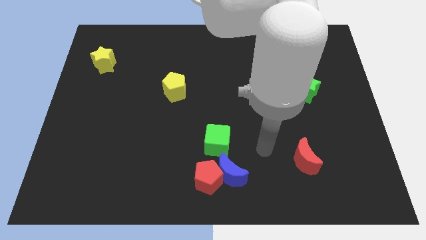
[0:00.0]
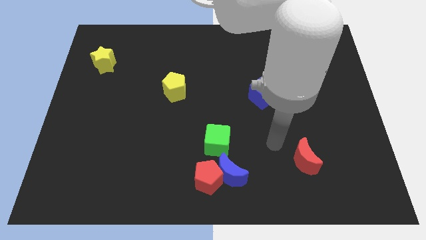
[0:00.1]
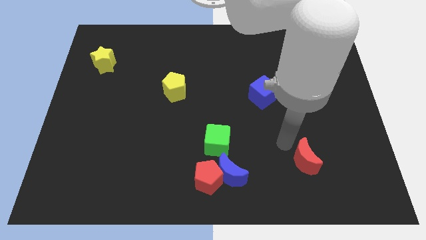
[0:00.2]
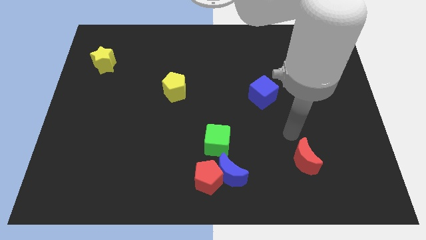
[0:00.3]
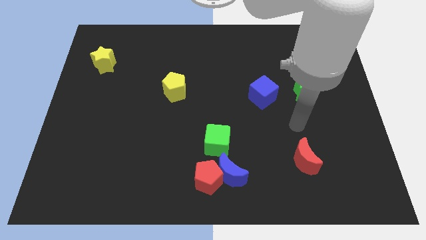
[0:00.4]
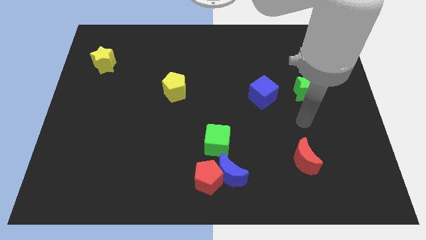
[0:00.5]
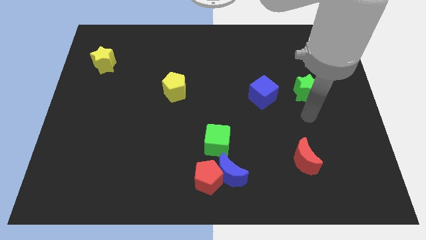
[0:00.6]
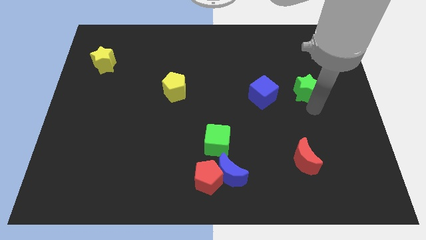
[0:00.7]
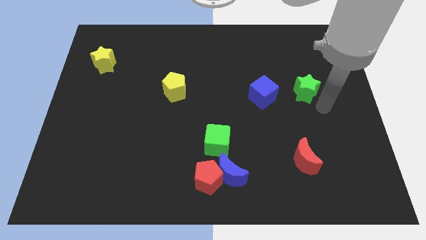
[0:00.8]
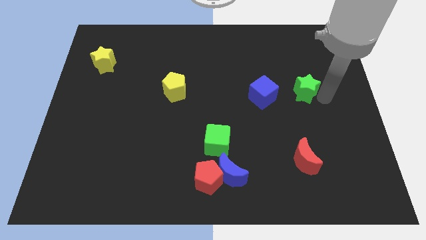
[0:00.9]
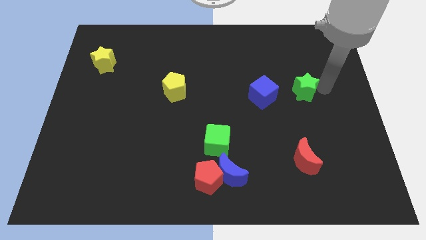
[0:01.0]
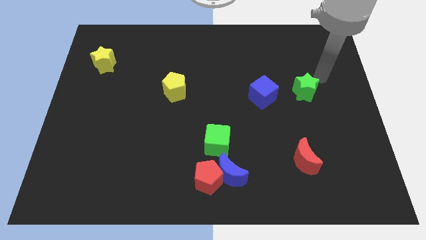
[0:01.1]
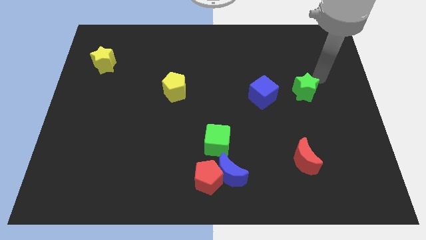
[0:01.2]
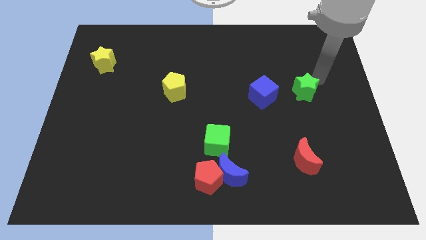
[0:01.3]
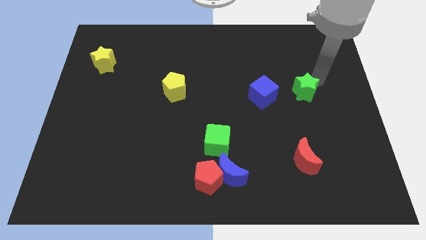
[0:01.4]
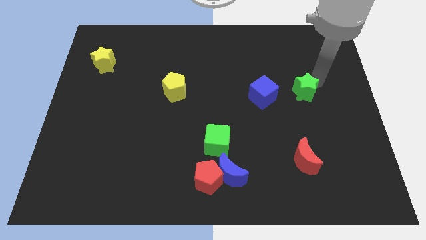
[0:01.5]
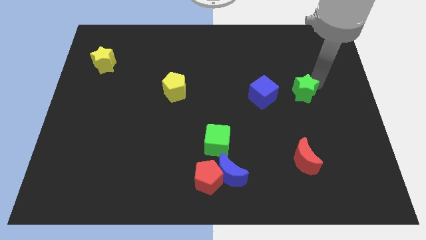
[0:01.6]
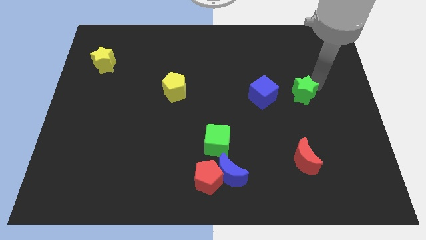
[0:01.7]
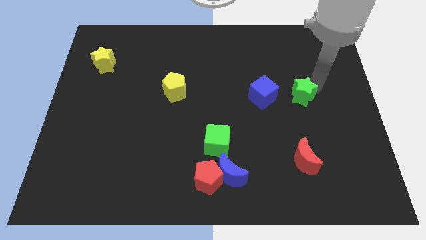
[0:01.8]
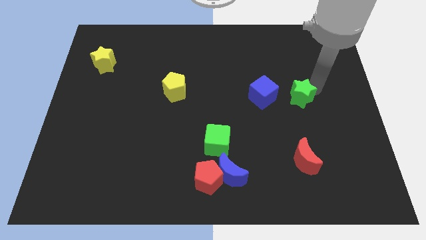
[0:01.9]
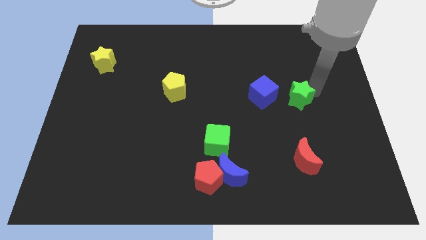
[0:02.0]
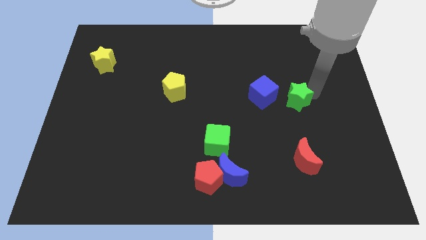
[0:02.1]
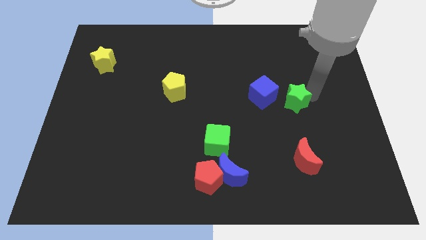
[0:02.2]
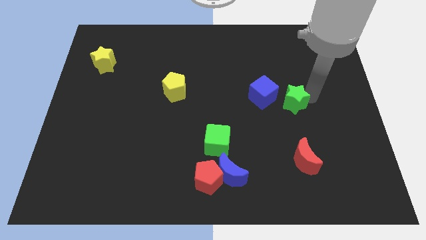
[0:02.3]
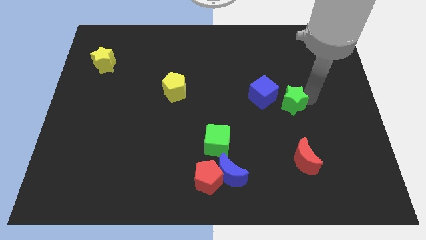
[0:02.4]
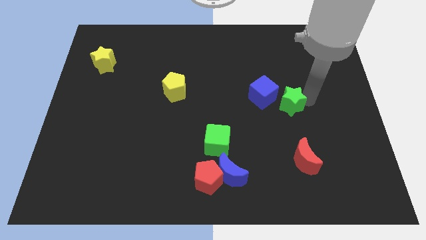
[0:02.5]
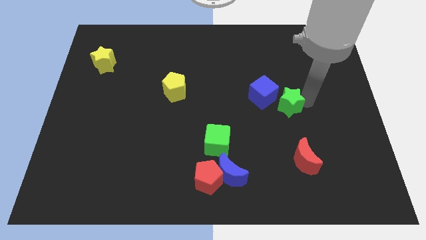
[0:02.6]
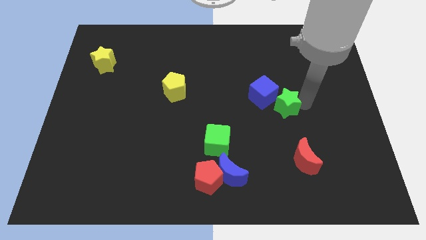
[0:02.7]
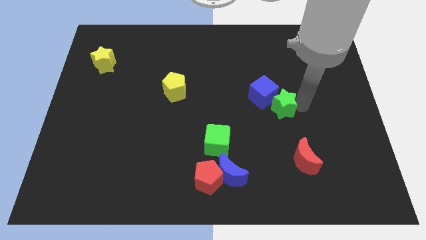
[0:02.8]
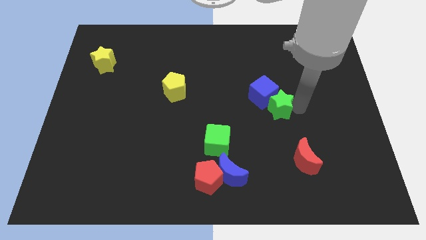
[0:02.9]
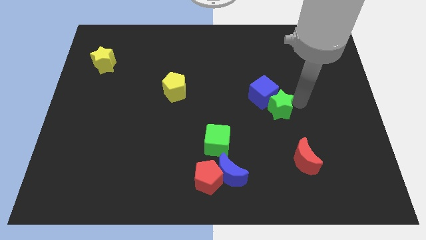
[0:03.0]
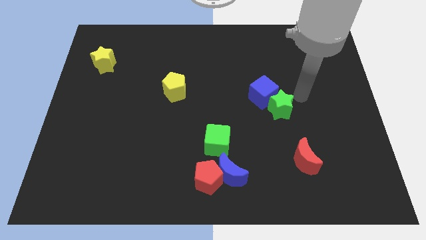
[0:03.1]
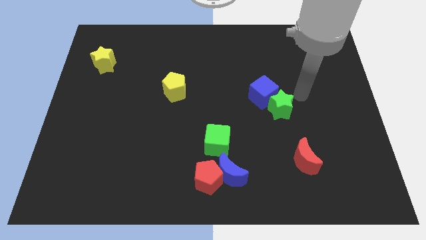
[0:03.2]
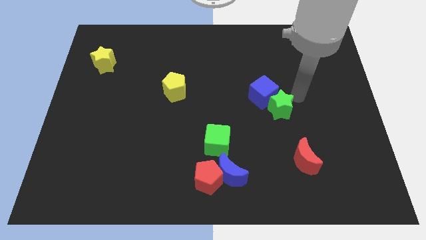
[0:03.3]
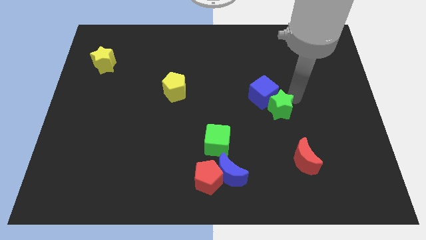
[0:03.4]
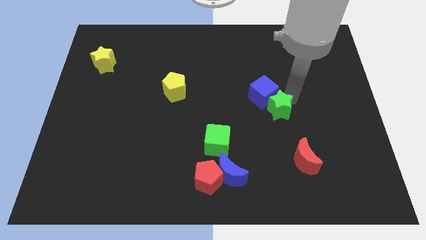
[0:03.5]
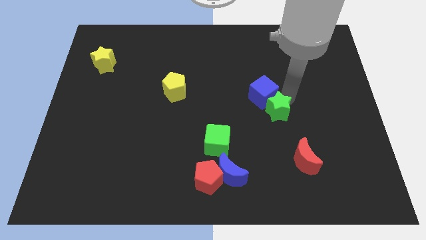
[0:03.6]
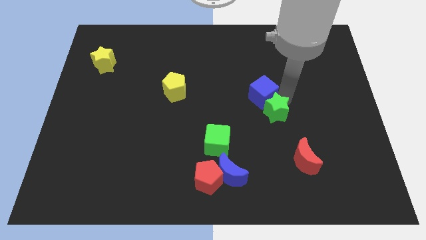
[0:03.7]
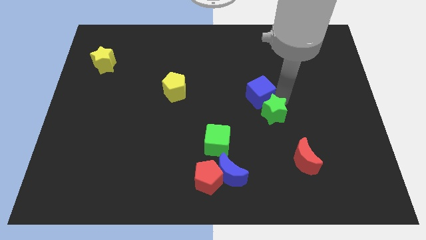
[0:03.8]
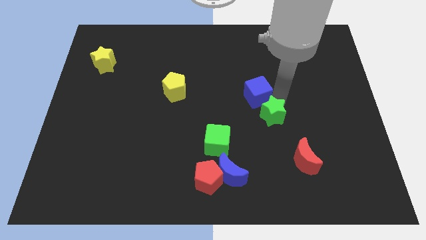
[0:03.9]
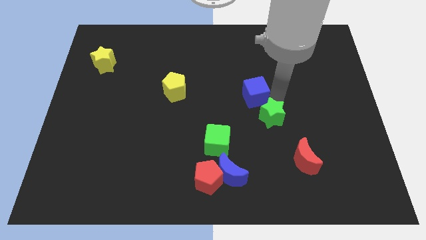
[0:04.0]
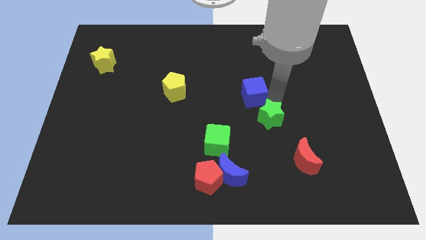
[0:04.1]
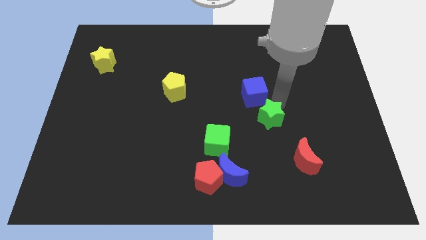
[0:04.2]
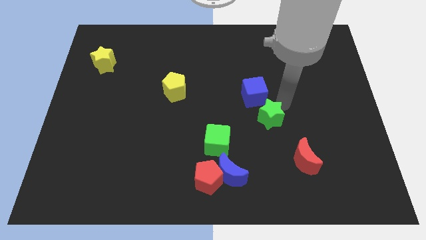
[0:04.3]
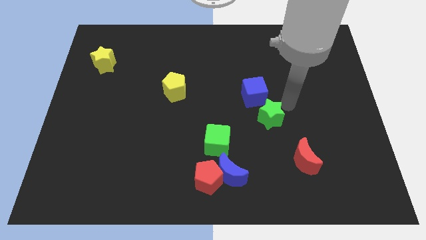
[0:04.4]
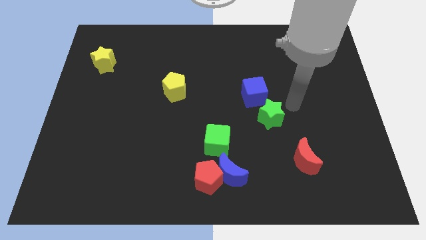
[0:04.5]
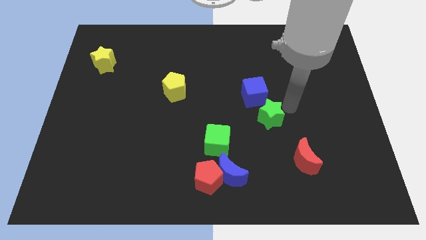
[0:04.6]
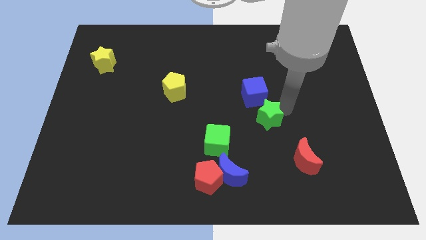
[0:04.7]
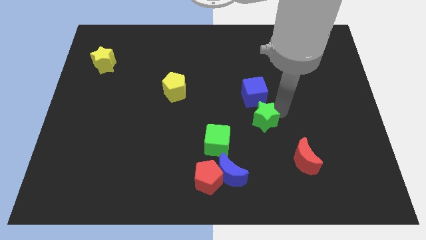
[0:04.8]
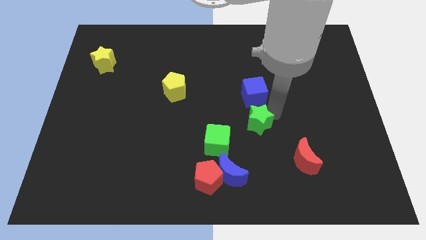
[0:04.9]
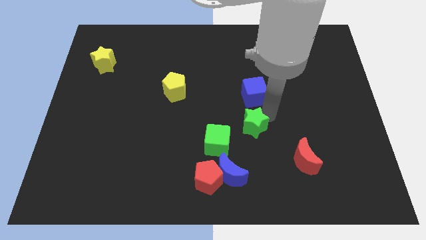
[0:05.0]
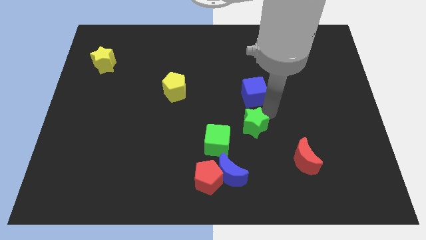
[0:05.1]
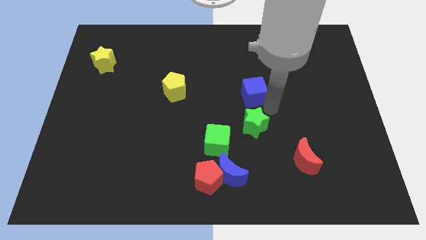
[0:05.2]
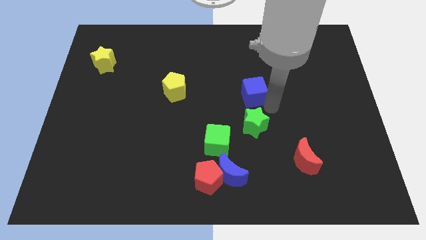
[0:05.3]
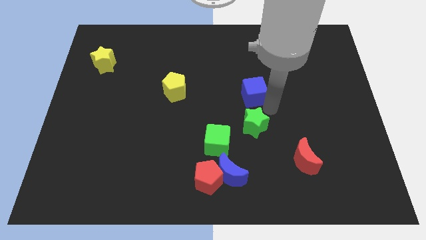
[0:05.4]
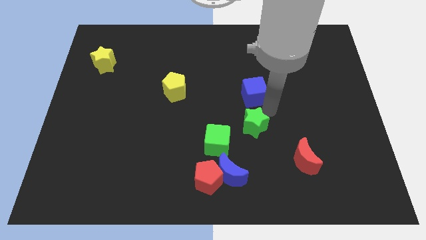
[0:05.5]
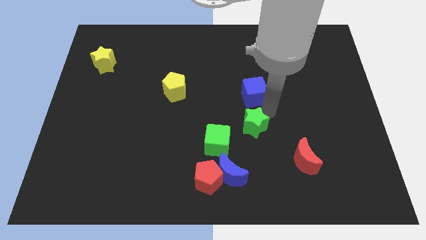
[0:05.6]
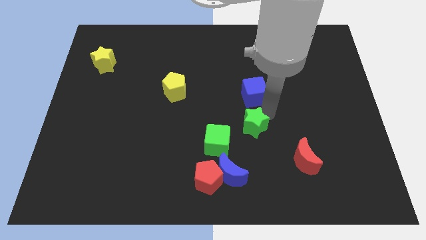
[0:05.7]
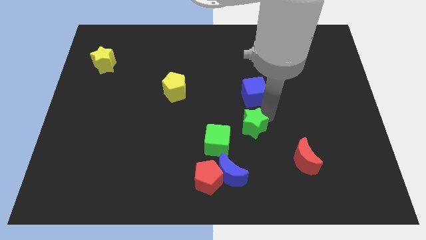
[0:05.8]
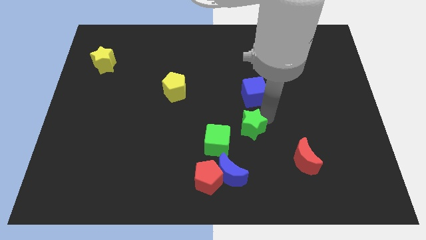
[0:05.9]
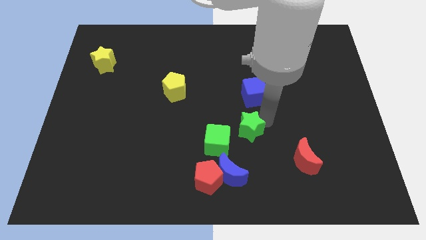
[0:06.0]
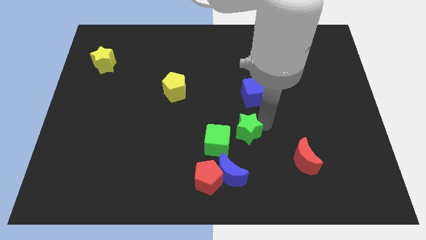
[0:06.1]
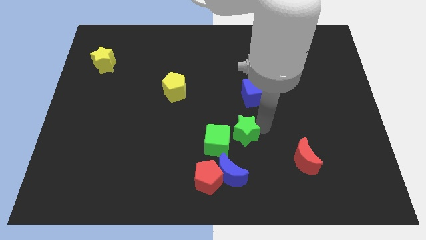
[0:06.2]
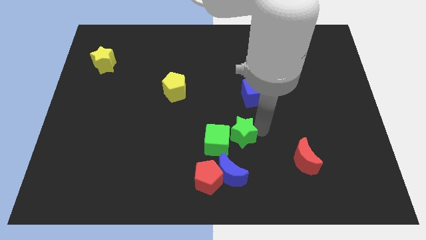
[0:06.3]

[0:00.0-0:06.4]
push the green star next to the green cube

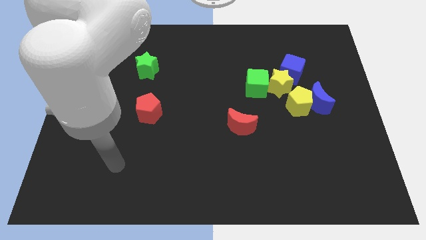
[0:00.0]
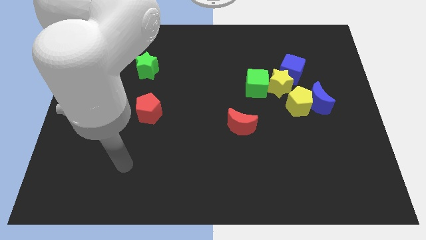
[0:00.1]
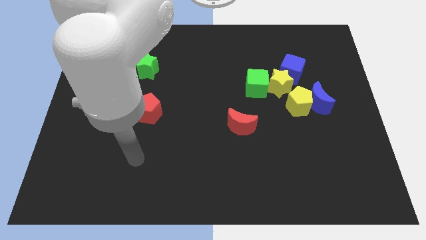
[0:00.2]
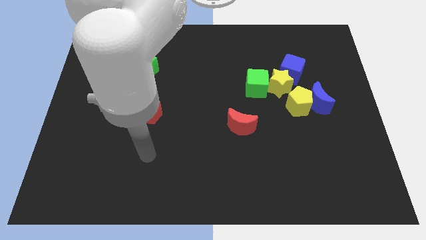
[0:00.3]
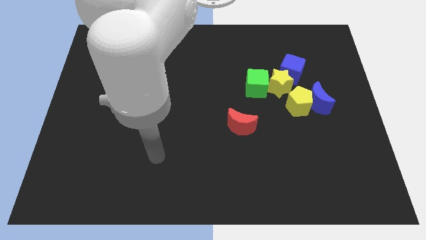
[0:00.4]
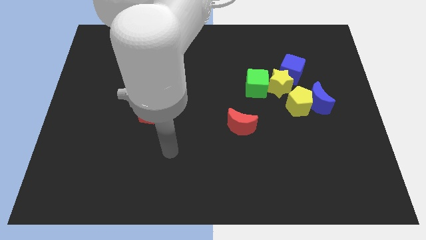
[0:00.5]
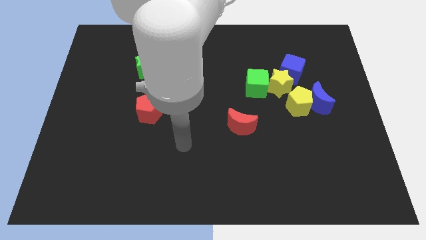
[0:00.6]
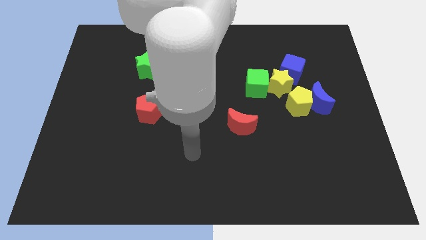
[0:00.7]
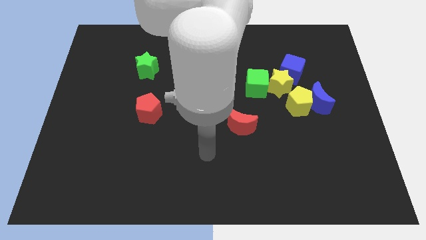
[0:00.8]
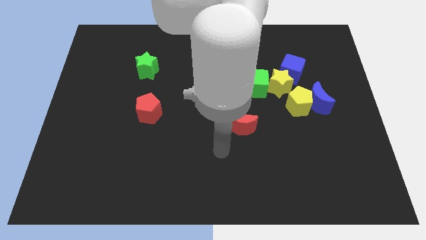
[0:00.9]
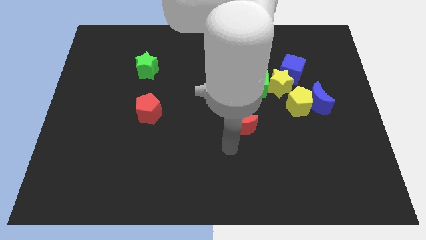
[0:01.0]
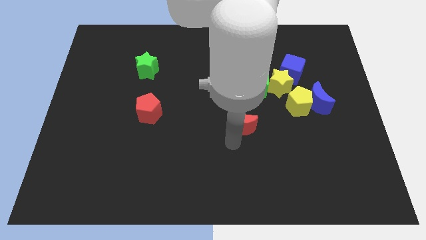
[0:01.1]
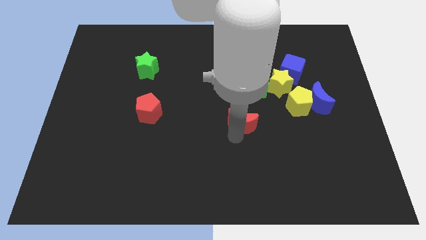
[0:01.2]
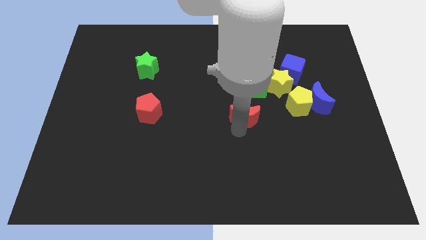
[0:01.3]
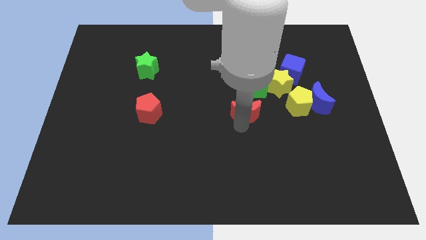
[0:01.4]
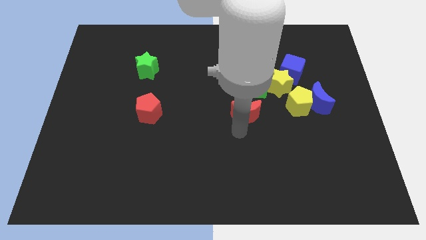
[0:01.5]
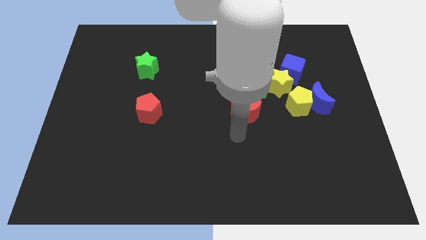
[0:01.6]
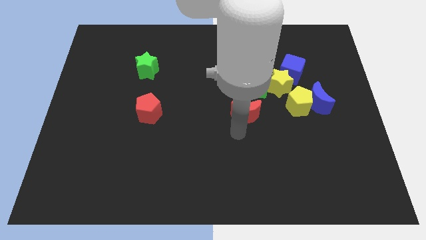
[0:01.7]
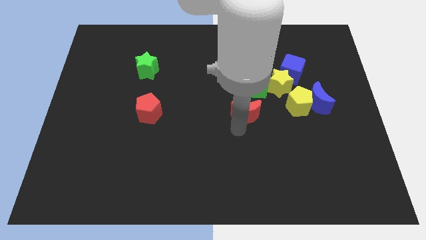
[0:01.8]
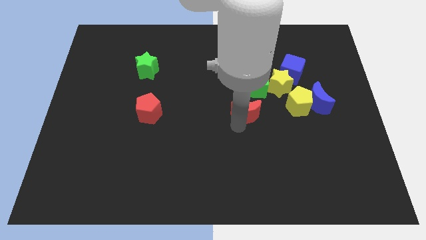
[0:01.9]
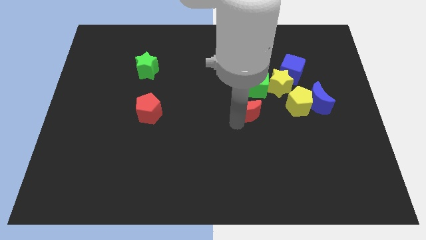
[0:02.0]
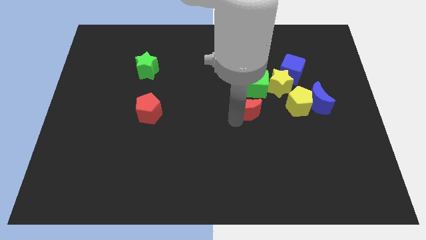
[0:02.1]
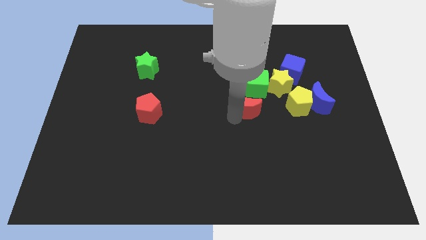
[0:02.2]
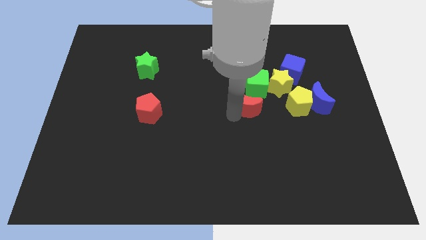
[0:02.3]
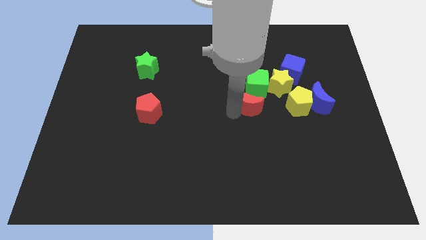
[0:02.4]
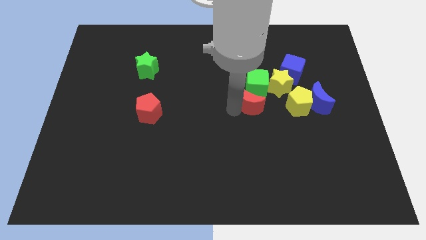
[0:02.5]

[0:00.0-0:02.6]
slide the red moon to the green cube
